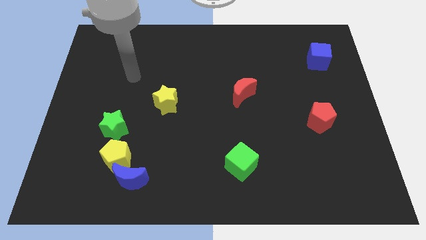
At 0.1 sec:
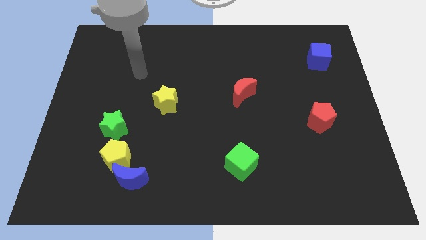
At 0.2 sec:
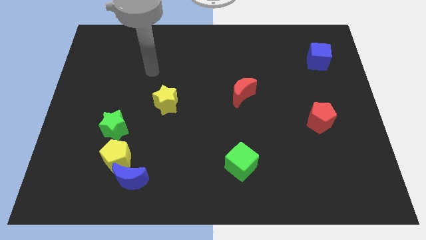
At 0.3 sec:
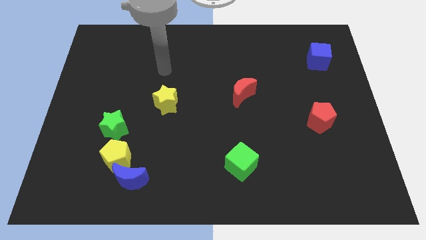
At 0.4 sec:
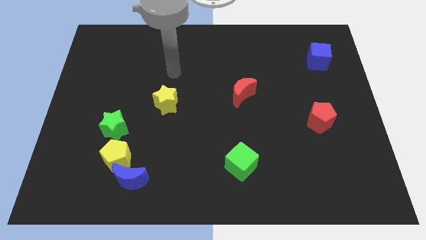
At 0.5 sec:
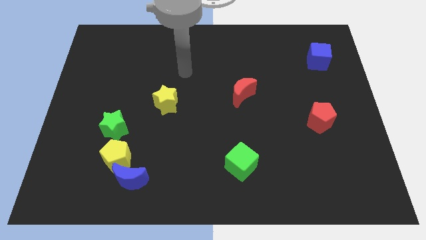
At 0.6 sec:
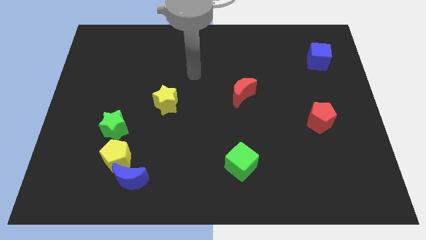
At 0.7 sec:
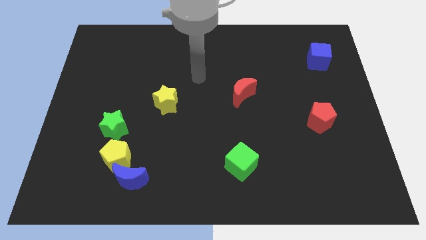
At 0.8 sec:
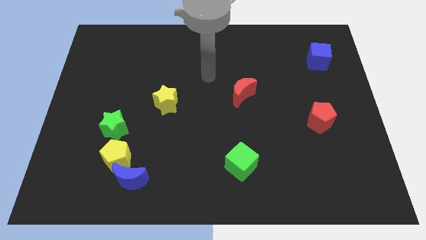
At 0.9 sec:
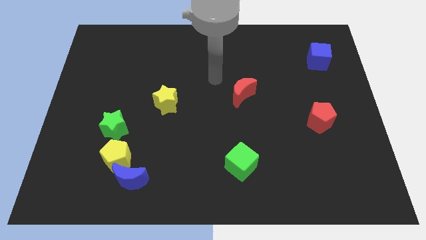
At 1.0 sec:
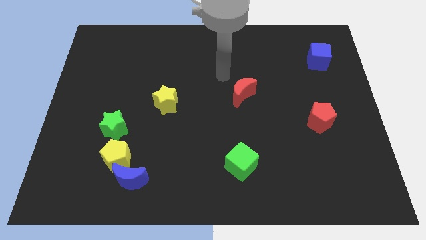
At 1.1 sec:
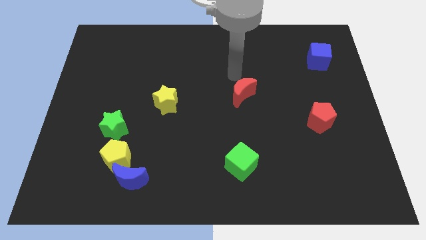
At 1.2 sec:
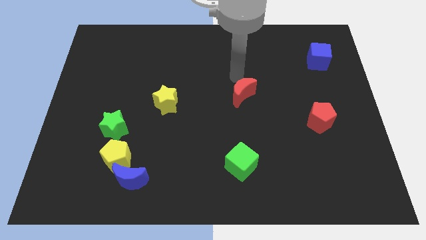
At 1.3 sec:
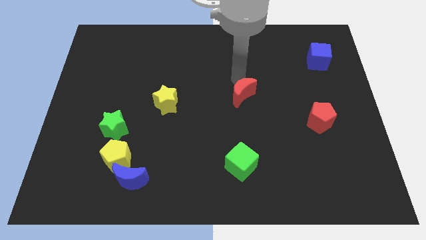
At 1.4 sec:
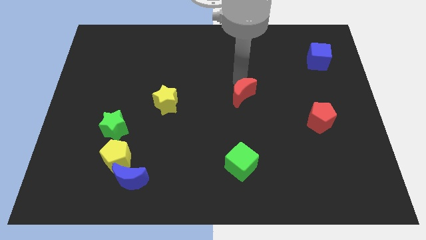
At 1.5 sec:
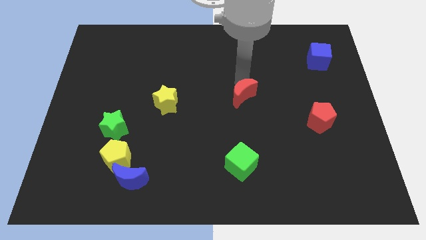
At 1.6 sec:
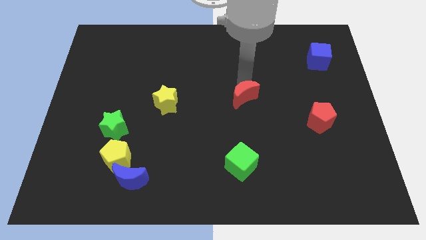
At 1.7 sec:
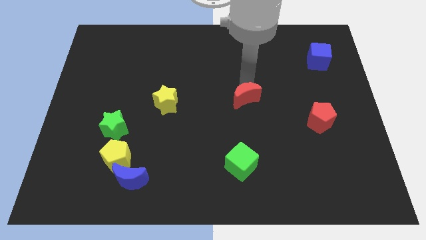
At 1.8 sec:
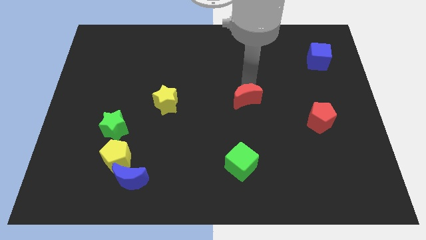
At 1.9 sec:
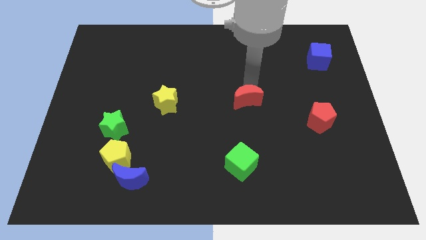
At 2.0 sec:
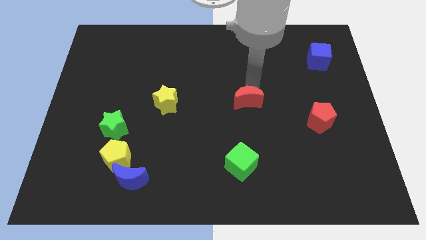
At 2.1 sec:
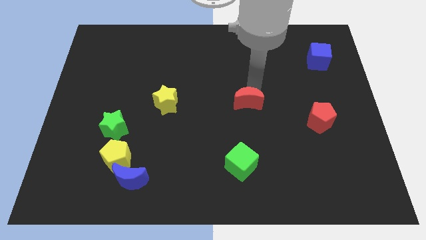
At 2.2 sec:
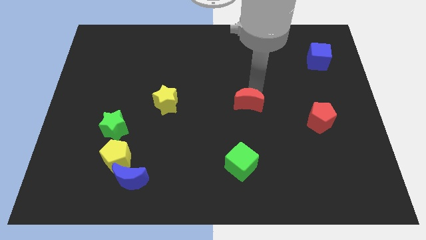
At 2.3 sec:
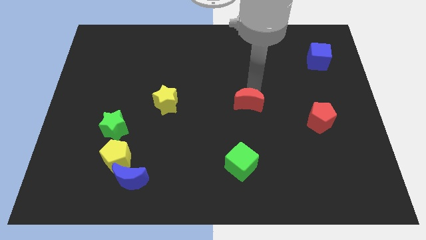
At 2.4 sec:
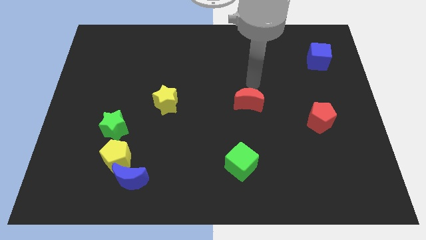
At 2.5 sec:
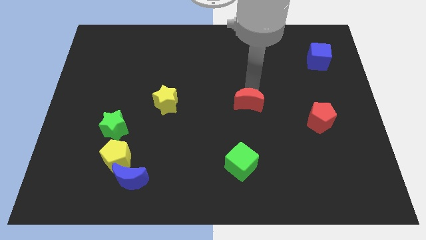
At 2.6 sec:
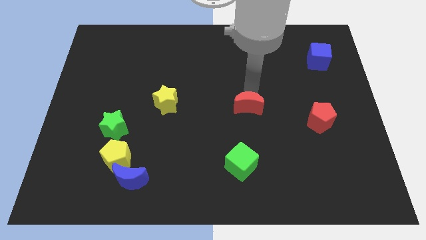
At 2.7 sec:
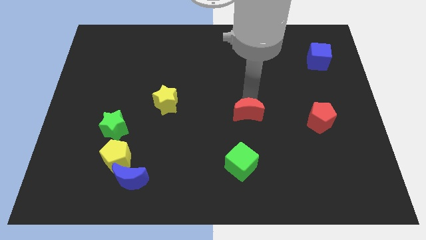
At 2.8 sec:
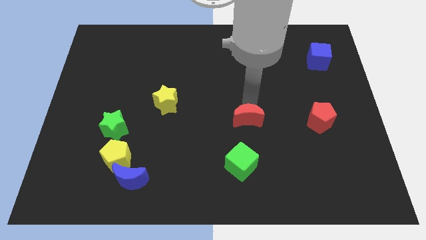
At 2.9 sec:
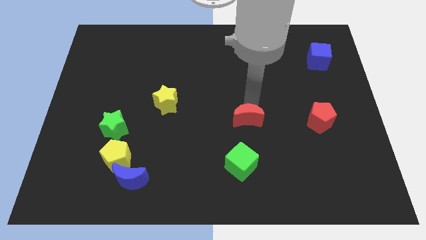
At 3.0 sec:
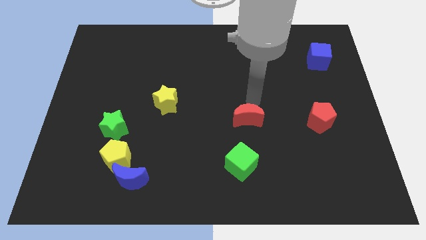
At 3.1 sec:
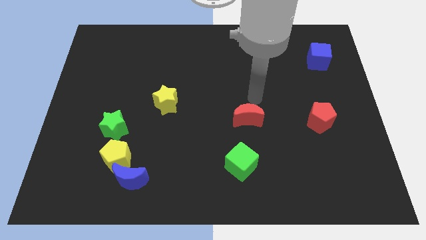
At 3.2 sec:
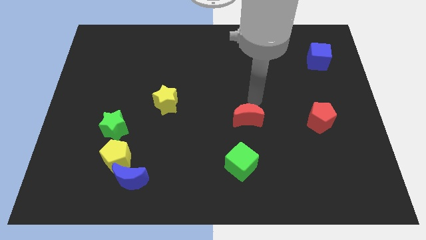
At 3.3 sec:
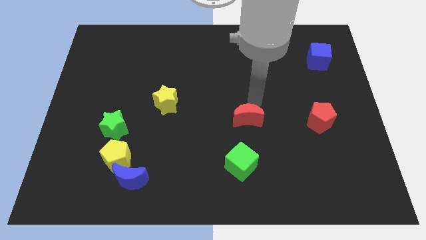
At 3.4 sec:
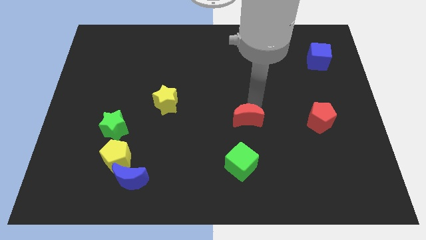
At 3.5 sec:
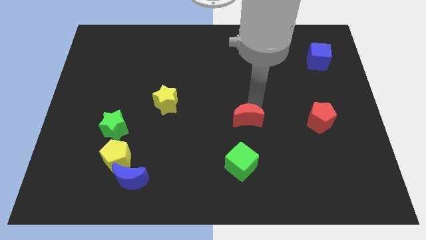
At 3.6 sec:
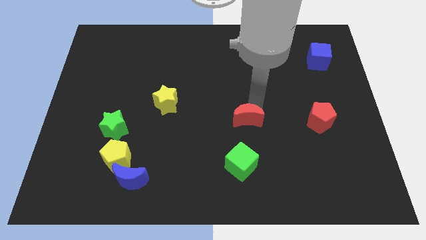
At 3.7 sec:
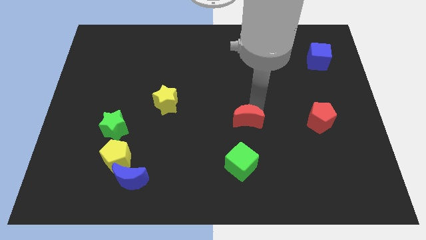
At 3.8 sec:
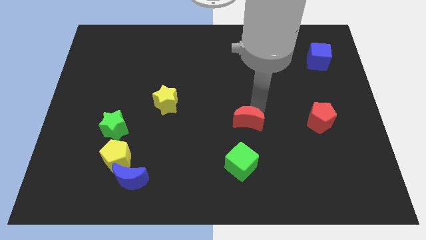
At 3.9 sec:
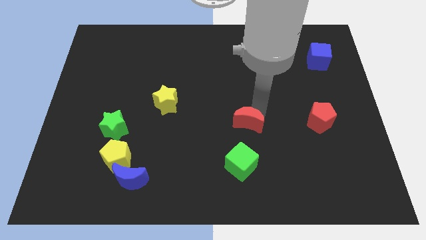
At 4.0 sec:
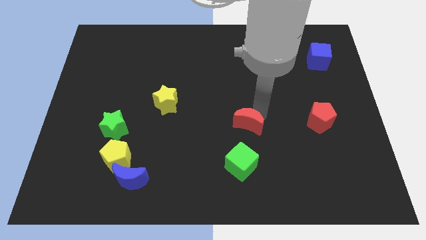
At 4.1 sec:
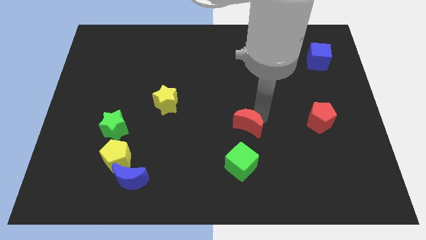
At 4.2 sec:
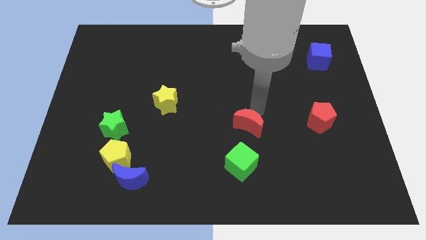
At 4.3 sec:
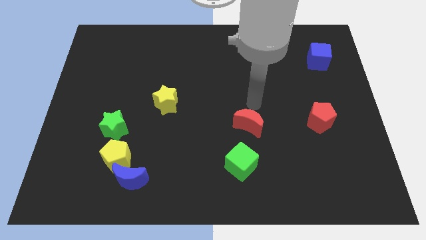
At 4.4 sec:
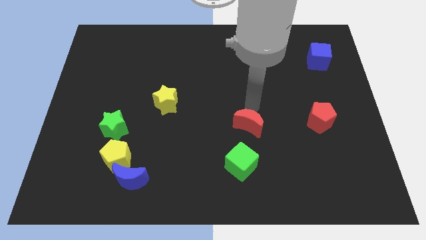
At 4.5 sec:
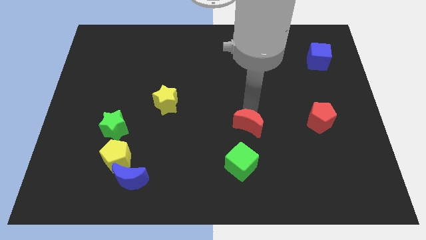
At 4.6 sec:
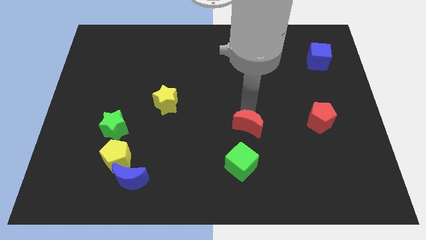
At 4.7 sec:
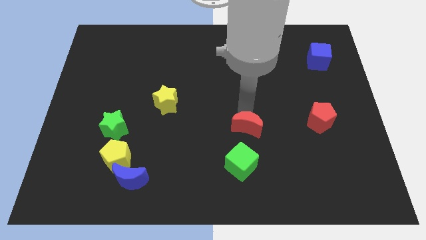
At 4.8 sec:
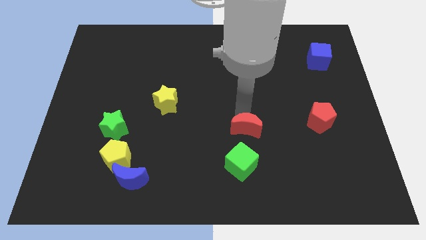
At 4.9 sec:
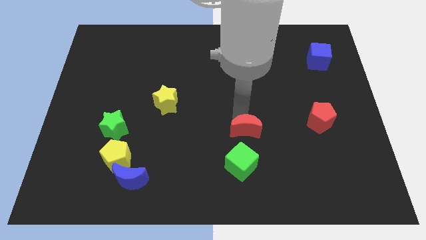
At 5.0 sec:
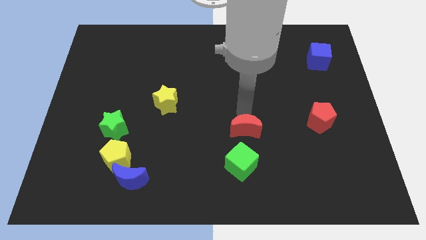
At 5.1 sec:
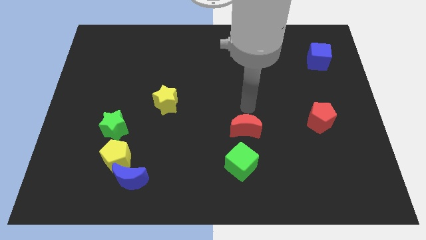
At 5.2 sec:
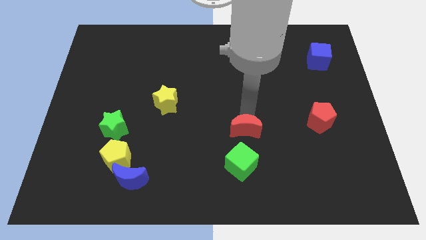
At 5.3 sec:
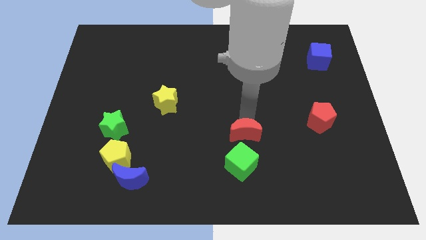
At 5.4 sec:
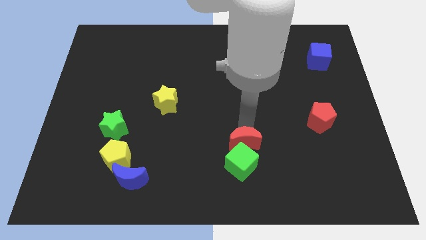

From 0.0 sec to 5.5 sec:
push the red moon close to the green cube

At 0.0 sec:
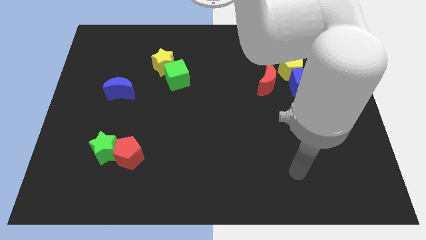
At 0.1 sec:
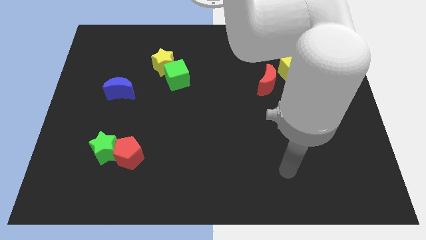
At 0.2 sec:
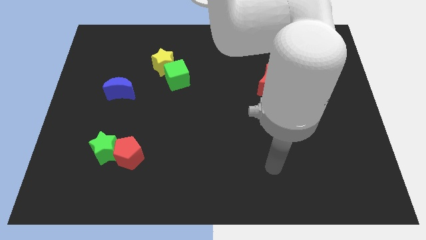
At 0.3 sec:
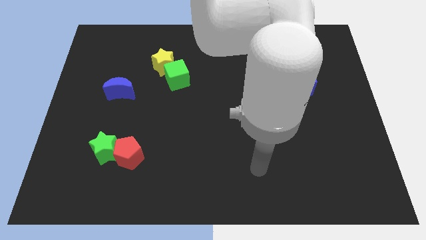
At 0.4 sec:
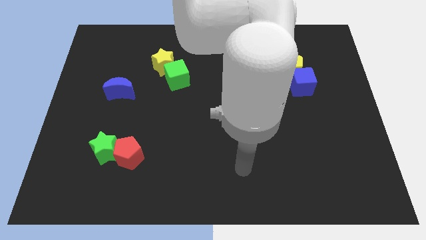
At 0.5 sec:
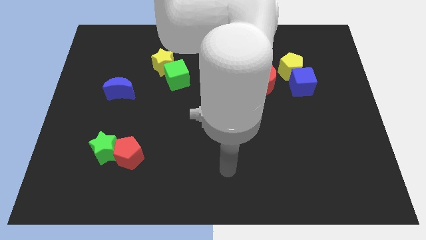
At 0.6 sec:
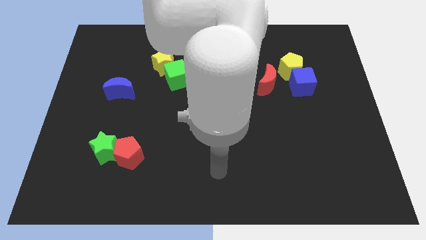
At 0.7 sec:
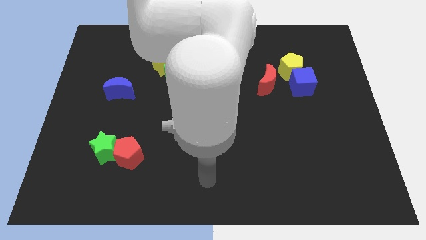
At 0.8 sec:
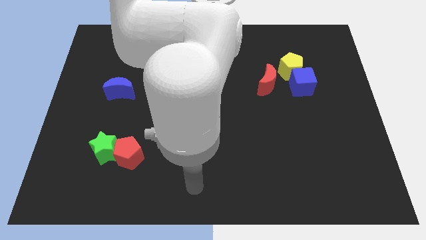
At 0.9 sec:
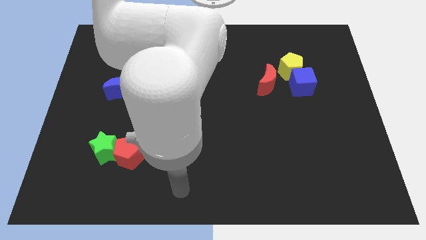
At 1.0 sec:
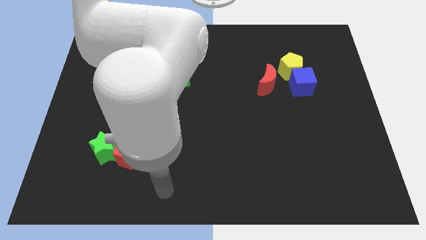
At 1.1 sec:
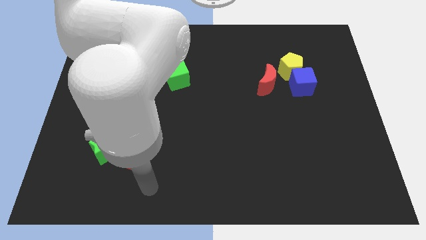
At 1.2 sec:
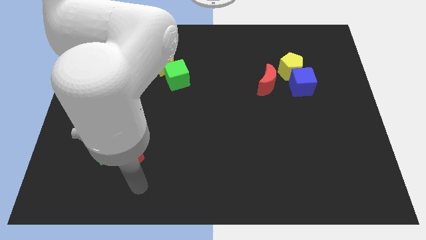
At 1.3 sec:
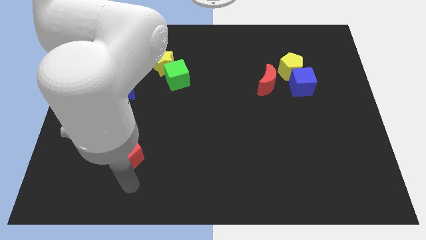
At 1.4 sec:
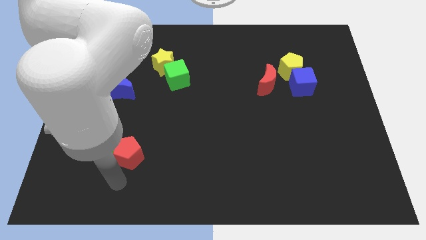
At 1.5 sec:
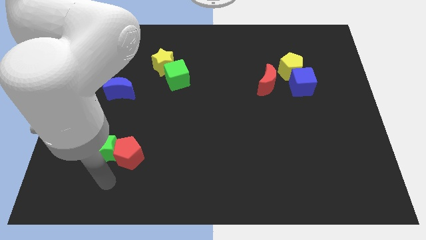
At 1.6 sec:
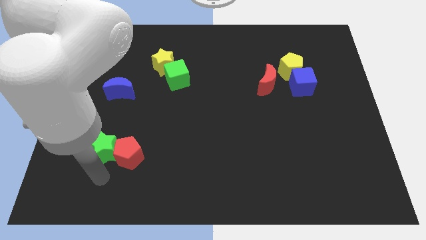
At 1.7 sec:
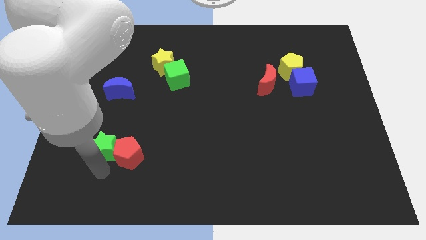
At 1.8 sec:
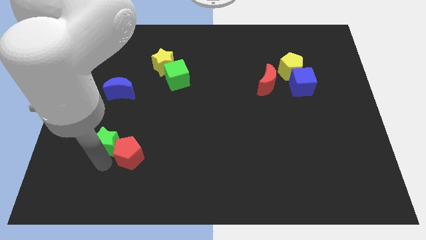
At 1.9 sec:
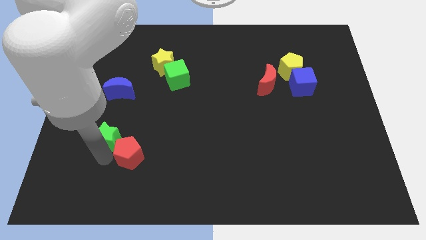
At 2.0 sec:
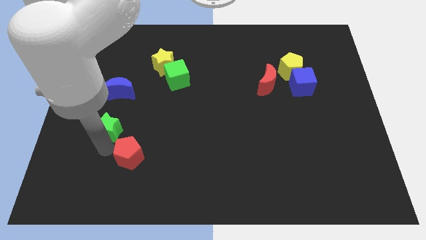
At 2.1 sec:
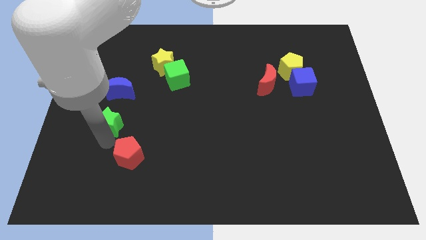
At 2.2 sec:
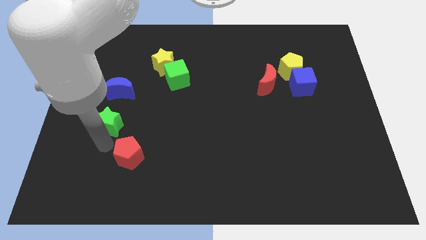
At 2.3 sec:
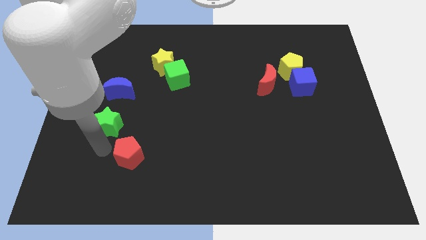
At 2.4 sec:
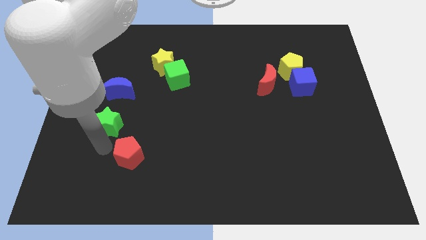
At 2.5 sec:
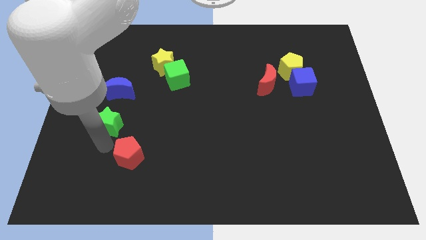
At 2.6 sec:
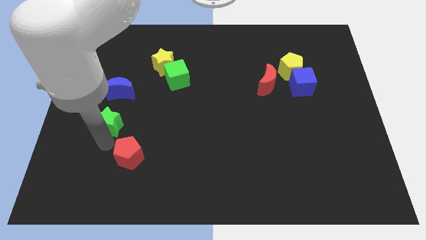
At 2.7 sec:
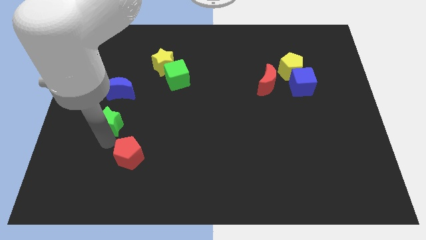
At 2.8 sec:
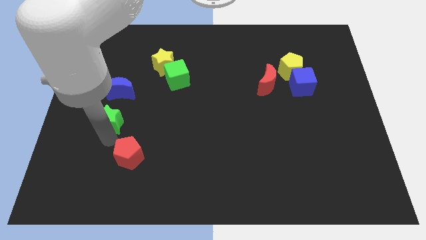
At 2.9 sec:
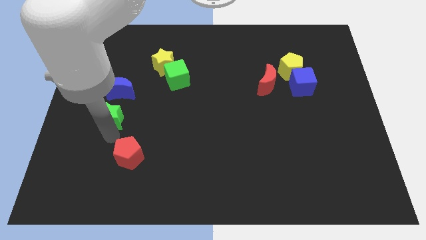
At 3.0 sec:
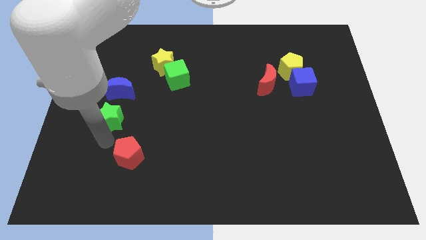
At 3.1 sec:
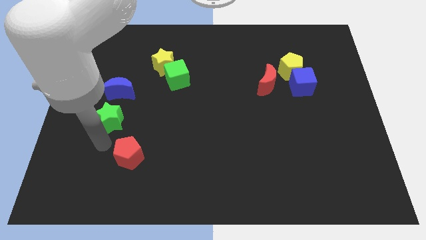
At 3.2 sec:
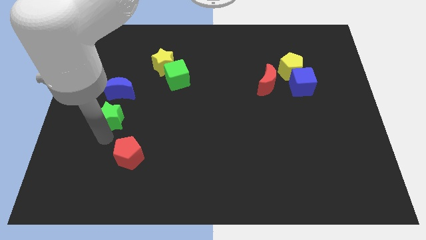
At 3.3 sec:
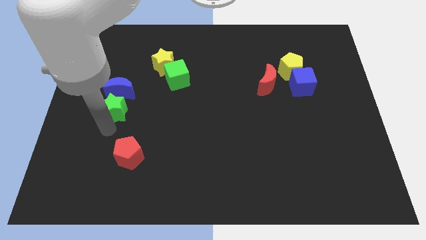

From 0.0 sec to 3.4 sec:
move the green star next to the blue moon
